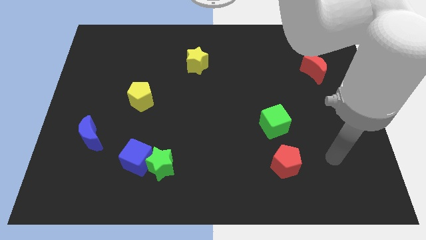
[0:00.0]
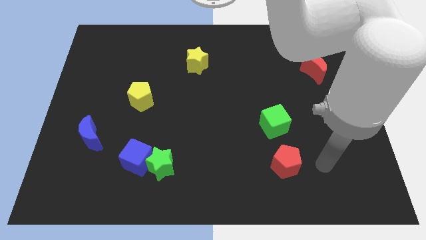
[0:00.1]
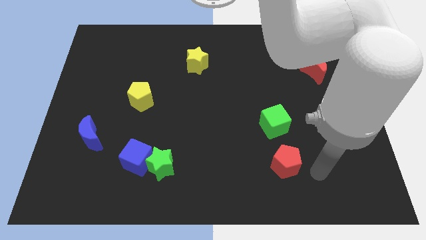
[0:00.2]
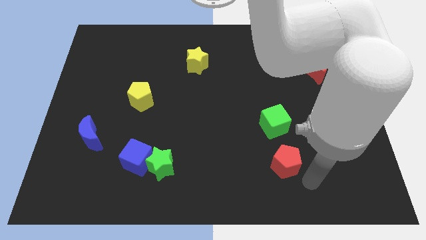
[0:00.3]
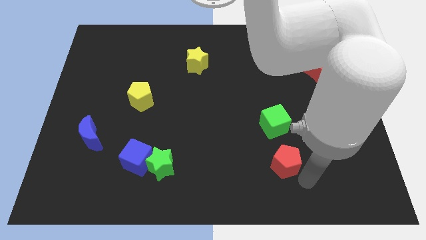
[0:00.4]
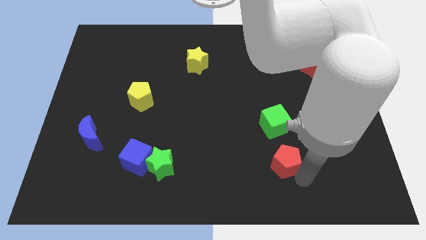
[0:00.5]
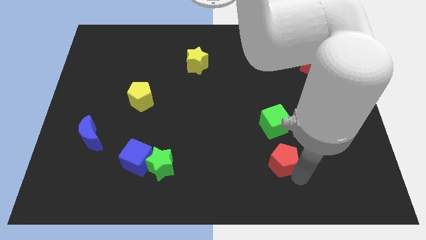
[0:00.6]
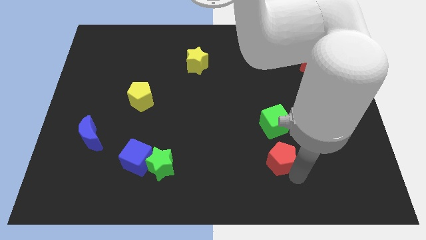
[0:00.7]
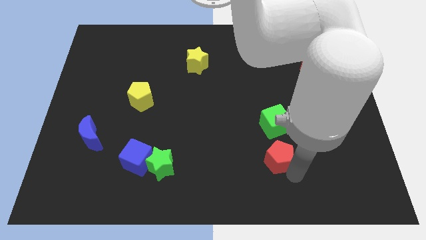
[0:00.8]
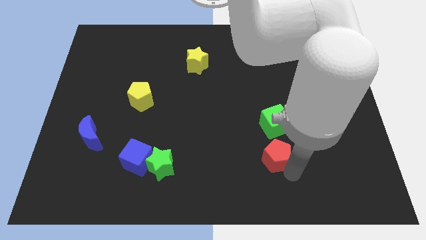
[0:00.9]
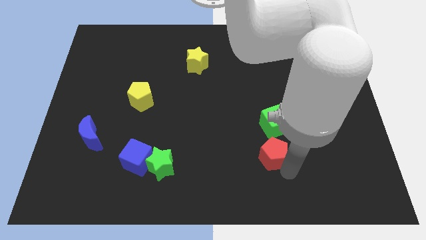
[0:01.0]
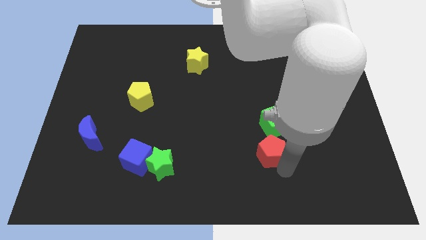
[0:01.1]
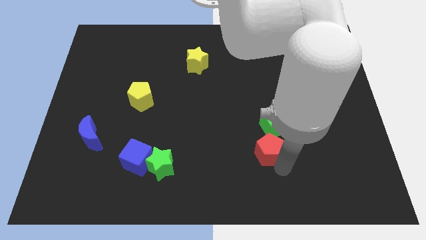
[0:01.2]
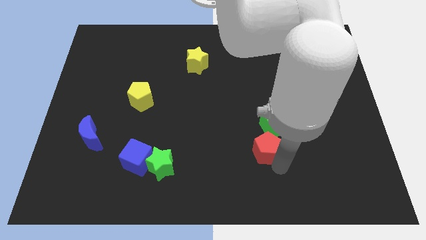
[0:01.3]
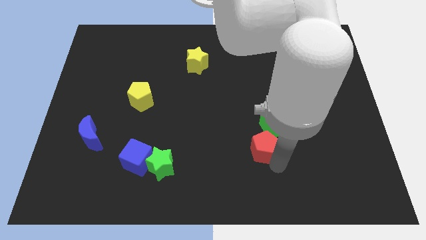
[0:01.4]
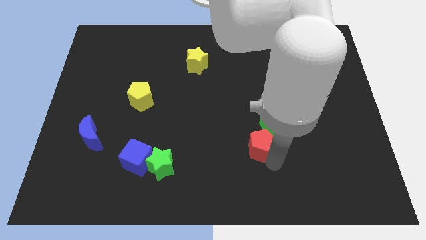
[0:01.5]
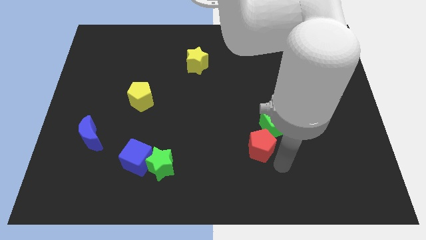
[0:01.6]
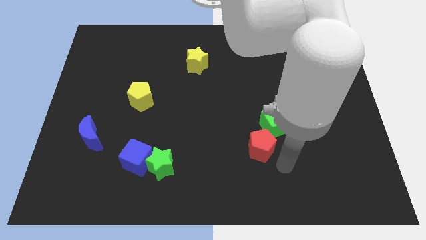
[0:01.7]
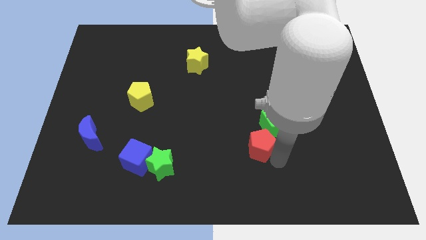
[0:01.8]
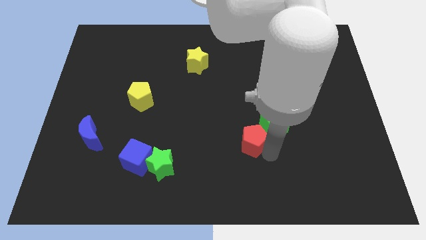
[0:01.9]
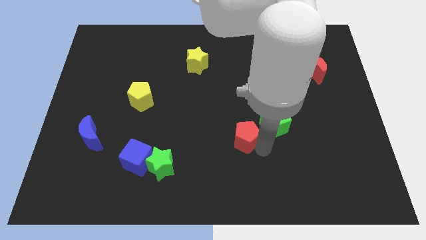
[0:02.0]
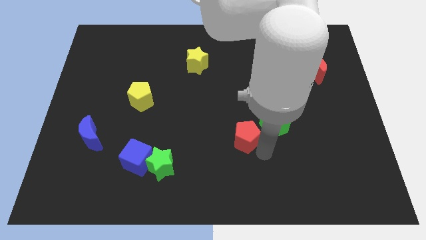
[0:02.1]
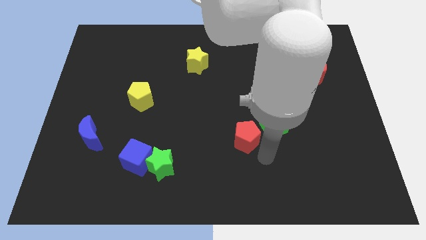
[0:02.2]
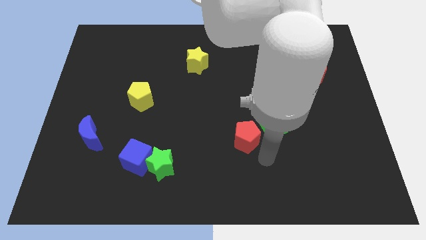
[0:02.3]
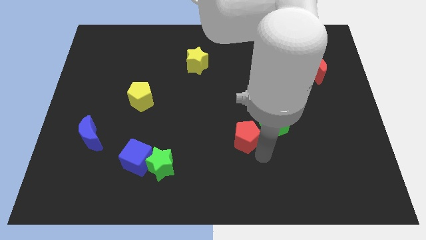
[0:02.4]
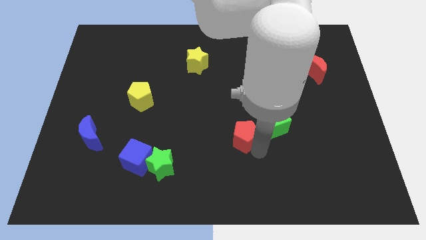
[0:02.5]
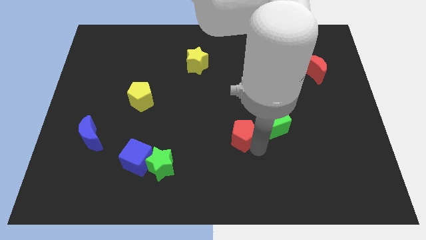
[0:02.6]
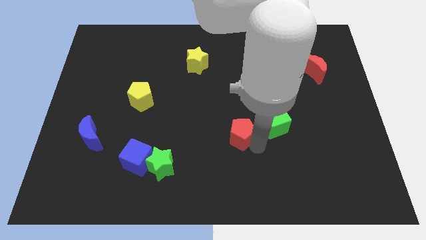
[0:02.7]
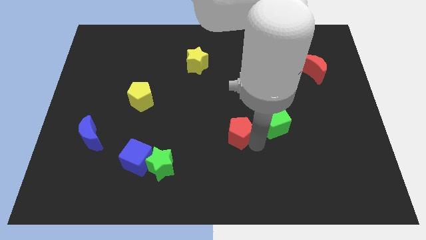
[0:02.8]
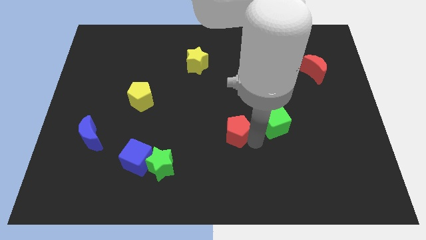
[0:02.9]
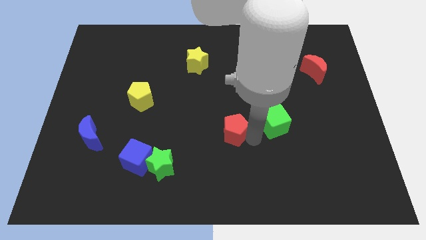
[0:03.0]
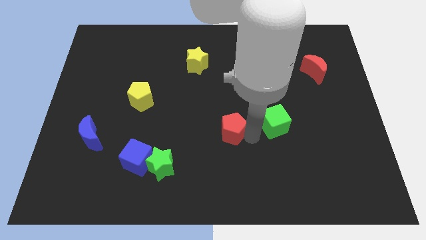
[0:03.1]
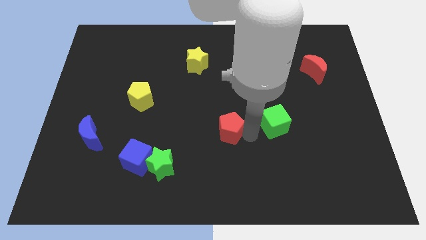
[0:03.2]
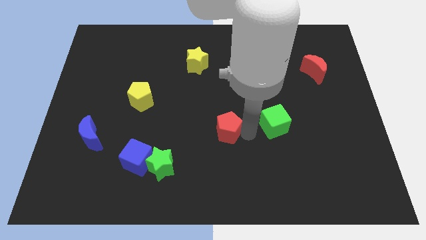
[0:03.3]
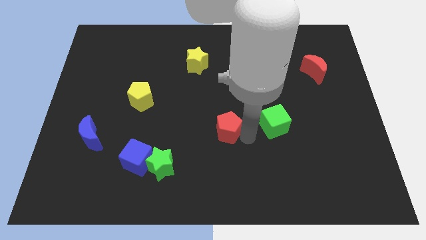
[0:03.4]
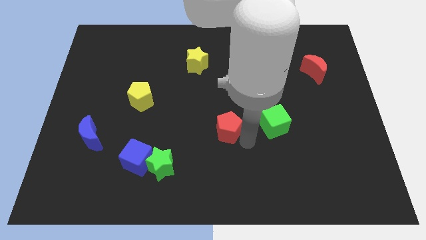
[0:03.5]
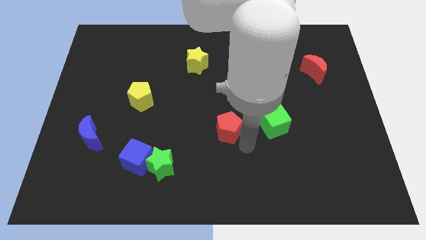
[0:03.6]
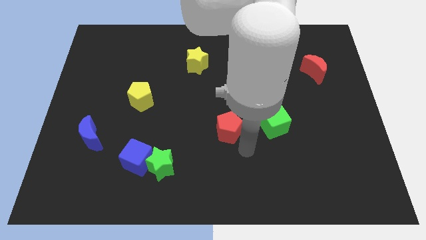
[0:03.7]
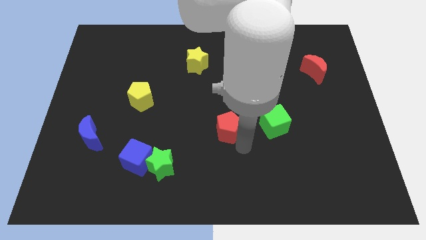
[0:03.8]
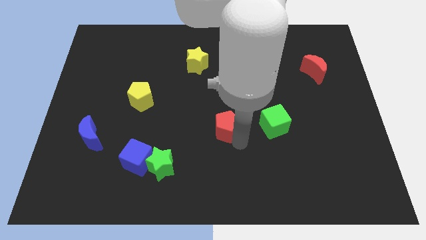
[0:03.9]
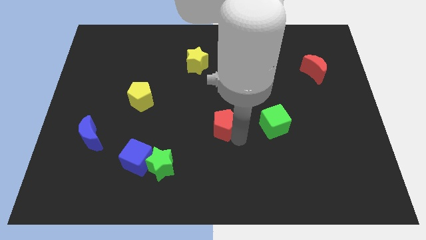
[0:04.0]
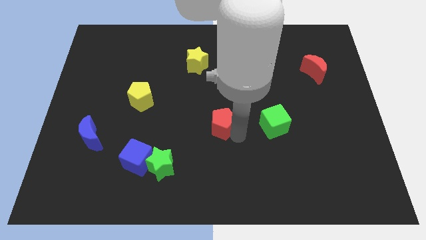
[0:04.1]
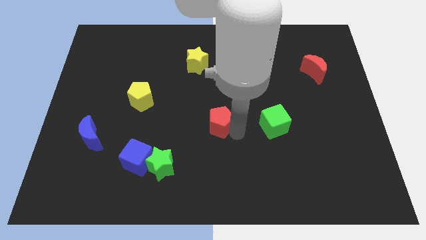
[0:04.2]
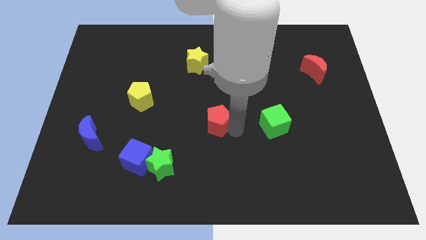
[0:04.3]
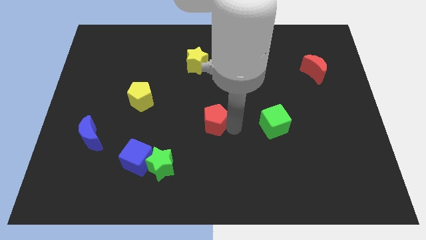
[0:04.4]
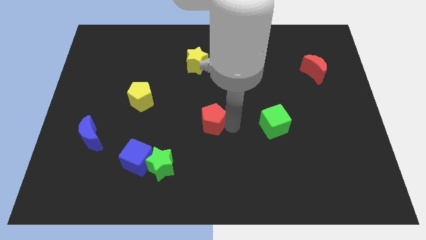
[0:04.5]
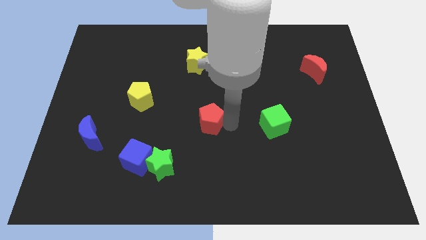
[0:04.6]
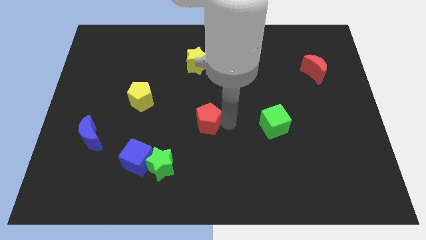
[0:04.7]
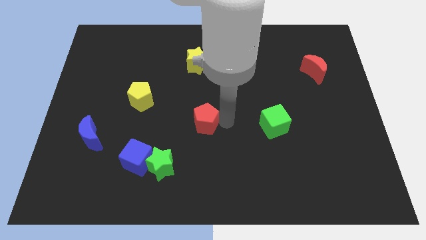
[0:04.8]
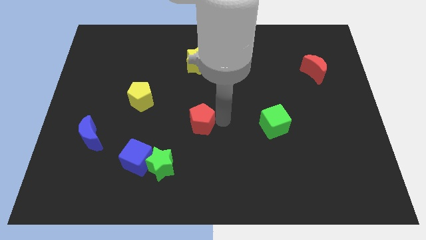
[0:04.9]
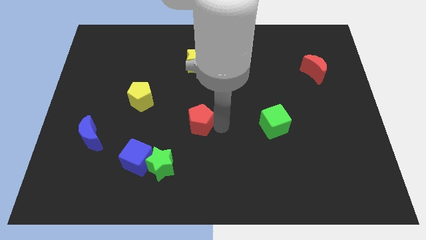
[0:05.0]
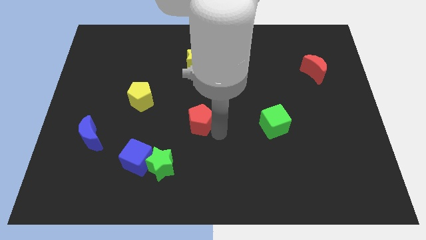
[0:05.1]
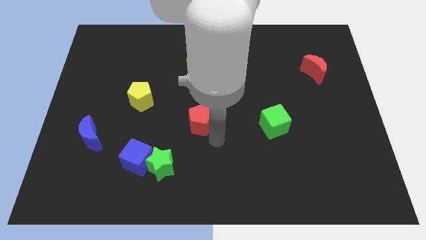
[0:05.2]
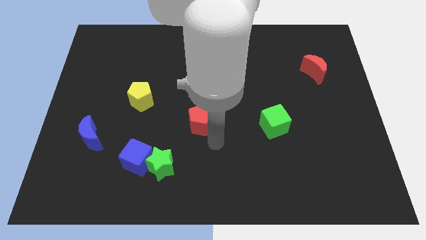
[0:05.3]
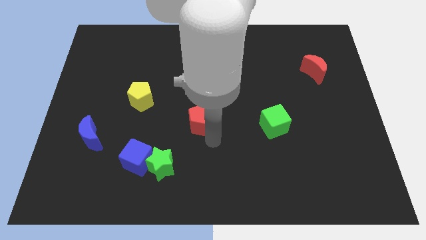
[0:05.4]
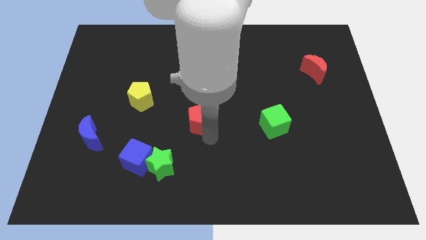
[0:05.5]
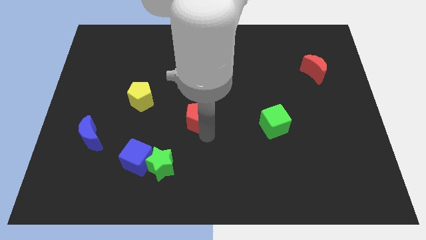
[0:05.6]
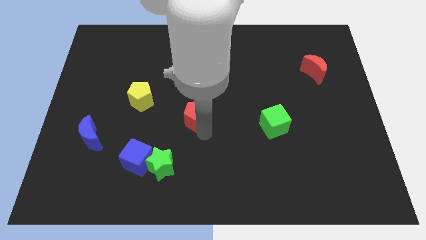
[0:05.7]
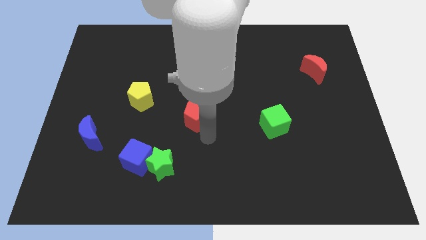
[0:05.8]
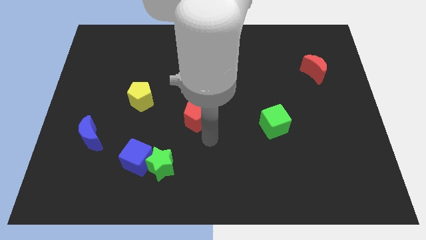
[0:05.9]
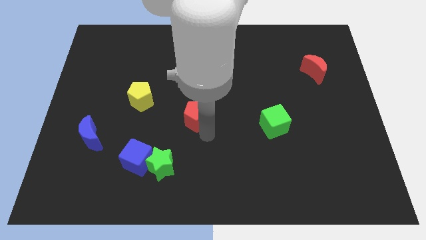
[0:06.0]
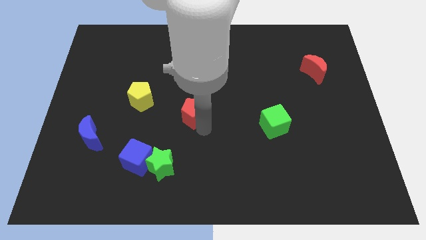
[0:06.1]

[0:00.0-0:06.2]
move the red pentagon right of the yellow pentagon

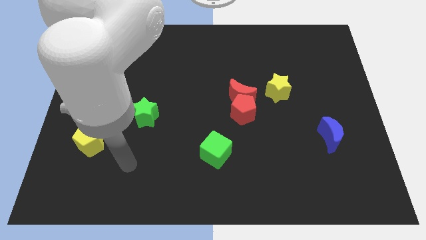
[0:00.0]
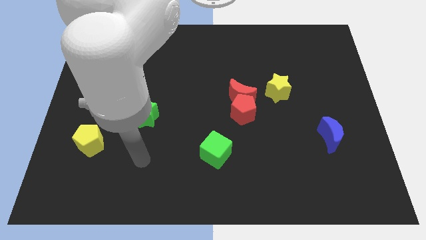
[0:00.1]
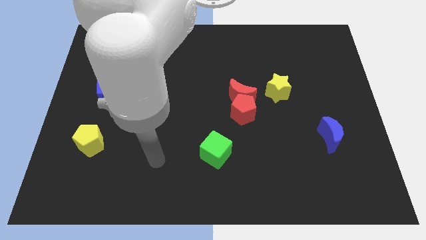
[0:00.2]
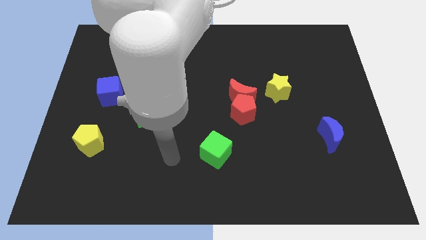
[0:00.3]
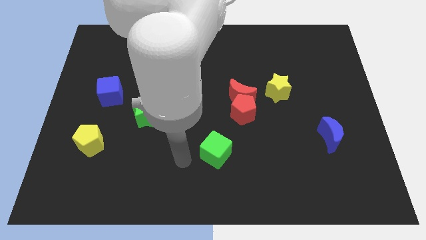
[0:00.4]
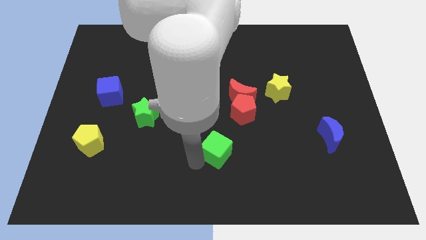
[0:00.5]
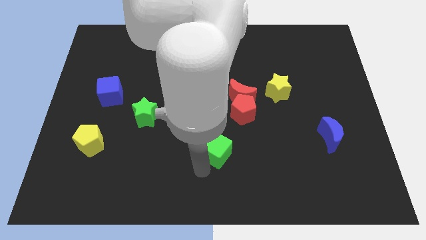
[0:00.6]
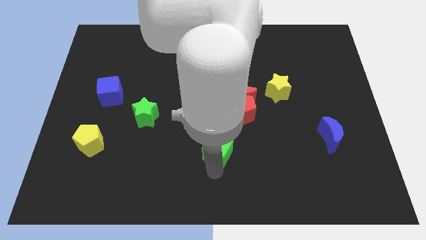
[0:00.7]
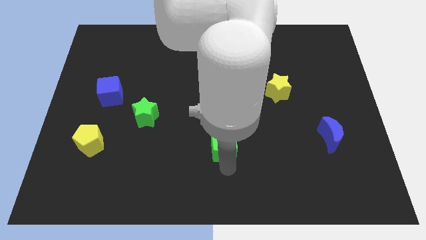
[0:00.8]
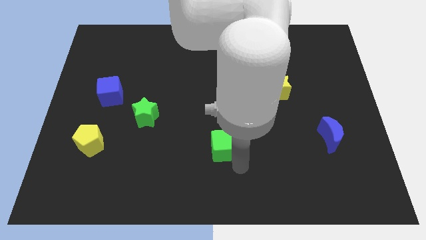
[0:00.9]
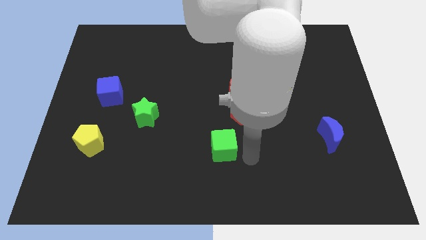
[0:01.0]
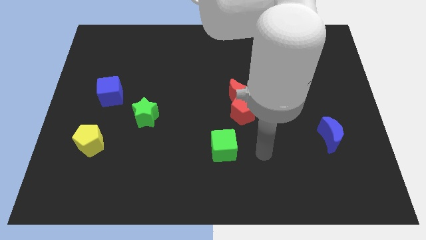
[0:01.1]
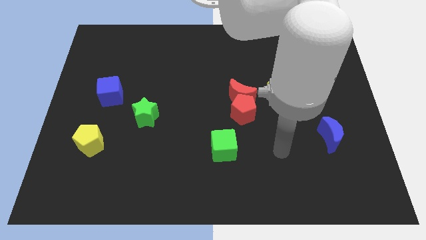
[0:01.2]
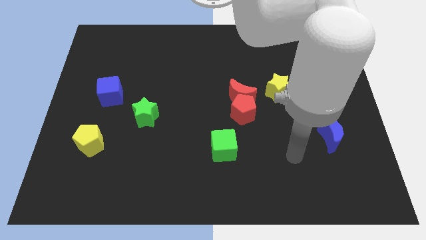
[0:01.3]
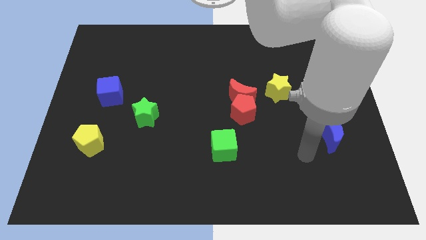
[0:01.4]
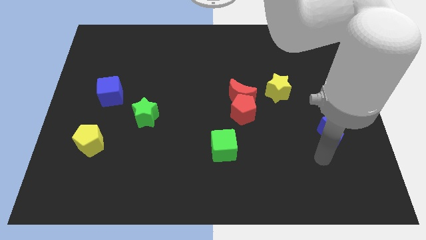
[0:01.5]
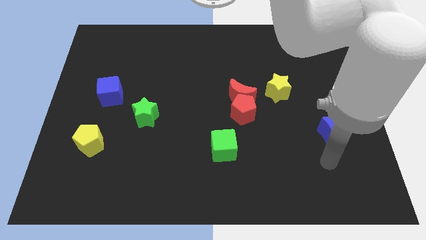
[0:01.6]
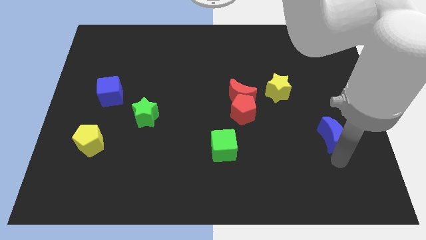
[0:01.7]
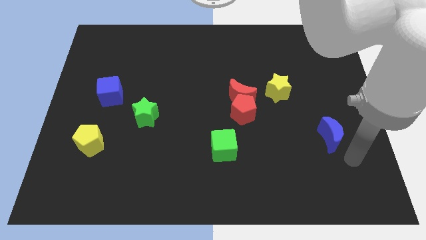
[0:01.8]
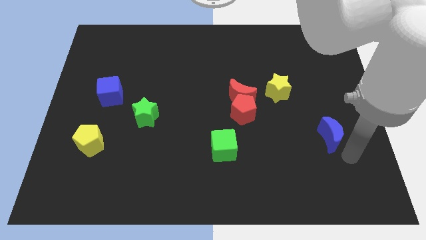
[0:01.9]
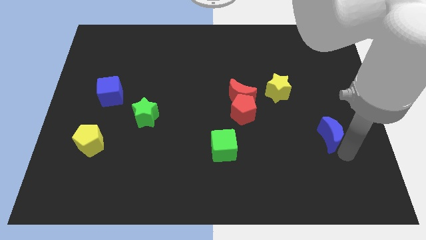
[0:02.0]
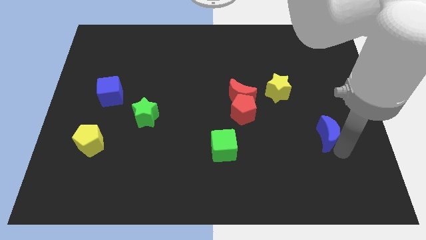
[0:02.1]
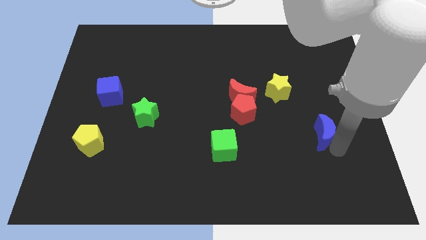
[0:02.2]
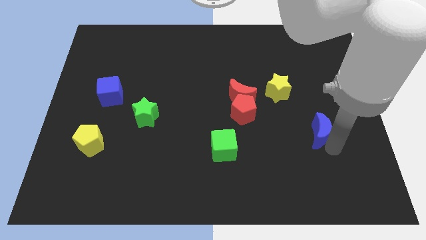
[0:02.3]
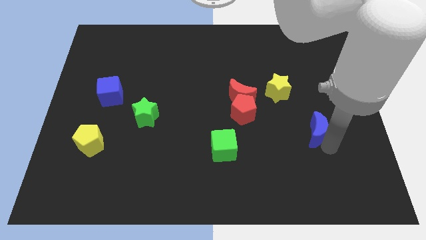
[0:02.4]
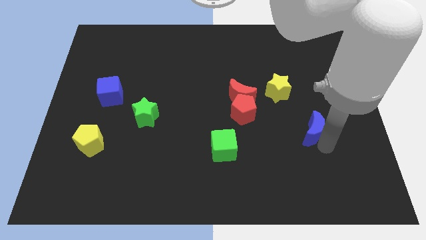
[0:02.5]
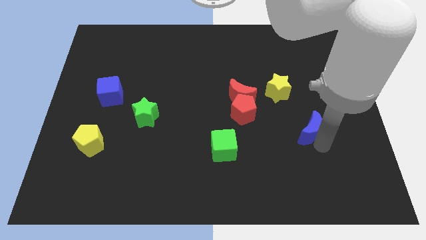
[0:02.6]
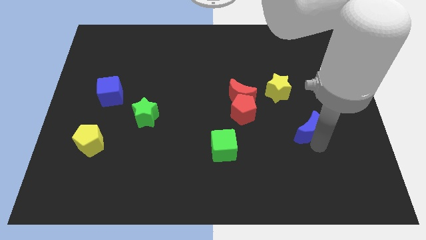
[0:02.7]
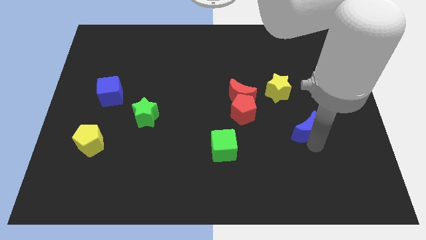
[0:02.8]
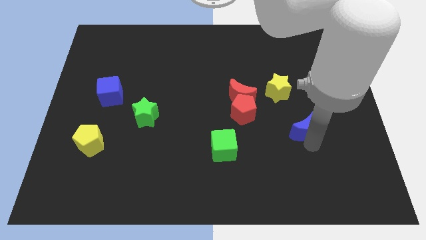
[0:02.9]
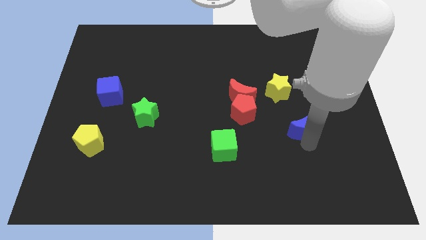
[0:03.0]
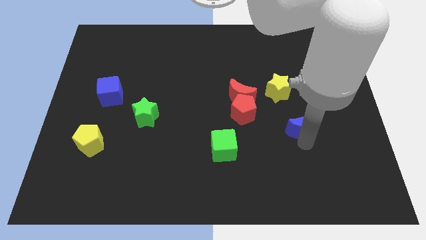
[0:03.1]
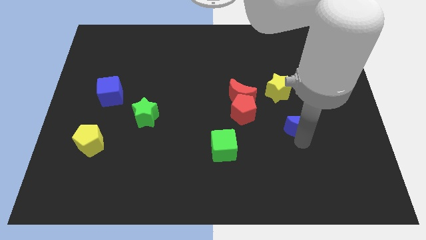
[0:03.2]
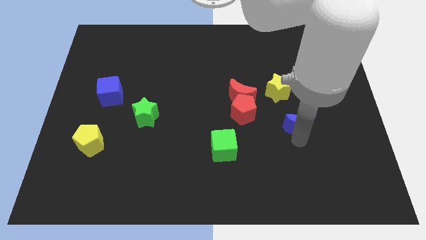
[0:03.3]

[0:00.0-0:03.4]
slide the blue moon to the bottom right of the yellow star
